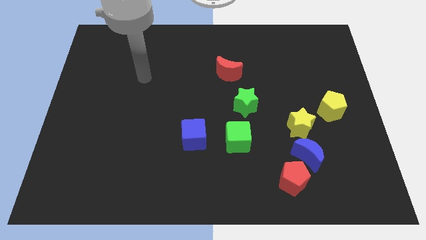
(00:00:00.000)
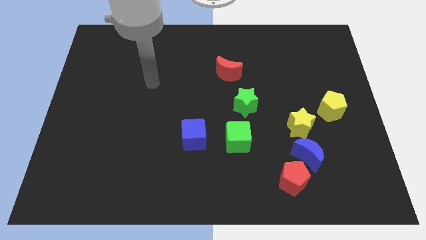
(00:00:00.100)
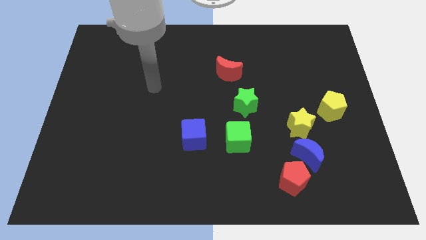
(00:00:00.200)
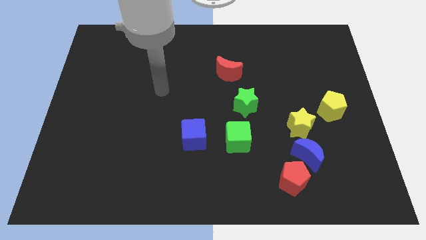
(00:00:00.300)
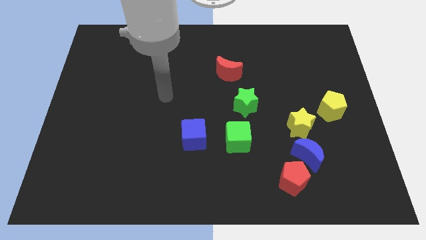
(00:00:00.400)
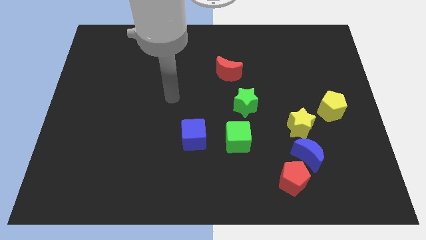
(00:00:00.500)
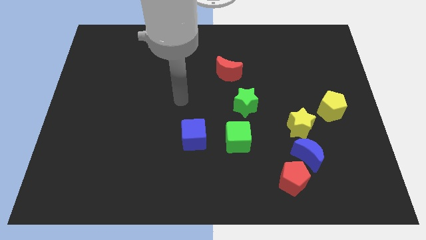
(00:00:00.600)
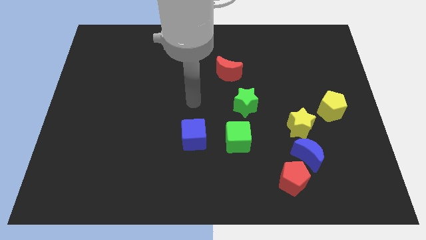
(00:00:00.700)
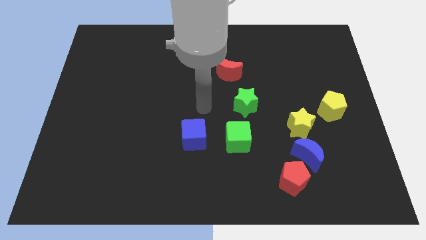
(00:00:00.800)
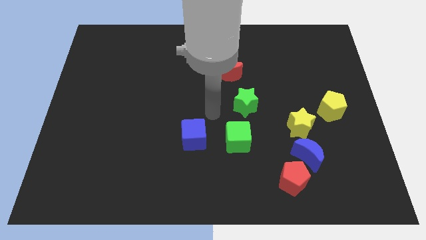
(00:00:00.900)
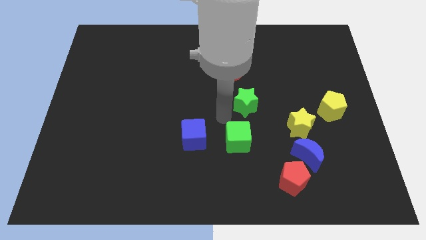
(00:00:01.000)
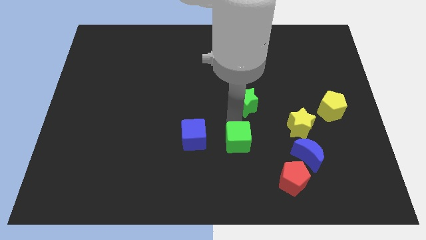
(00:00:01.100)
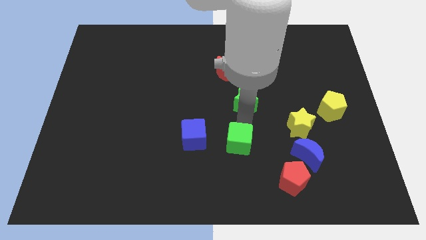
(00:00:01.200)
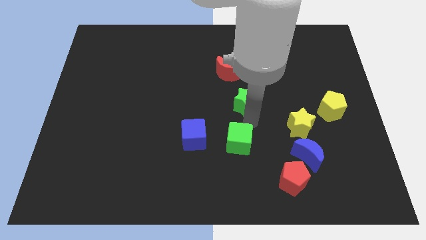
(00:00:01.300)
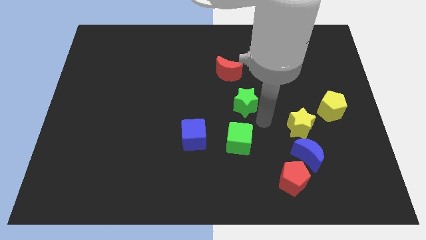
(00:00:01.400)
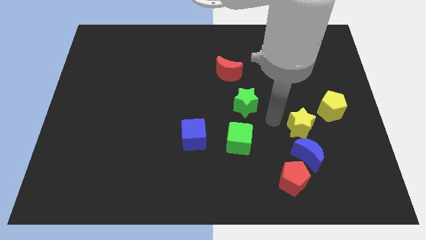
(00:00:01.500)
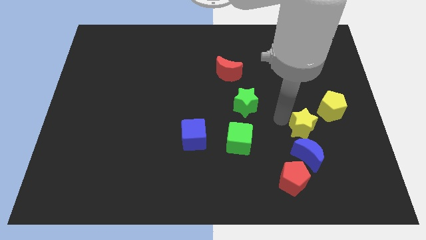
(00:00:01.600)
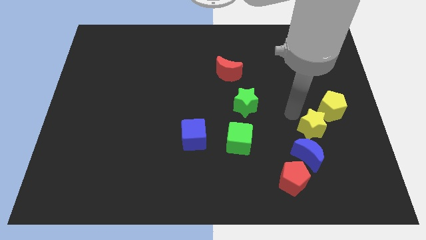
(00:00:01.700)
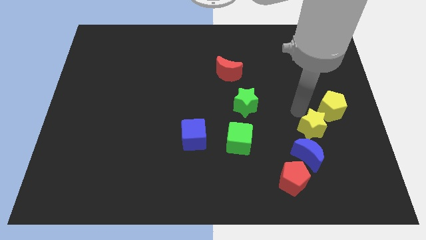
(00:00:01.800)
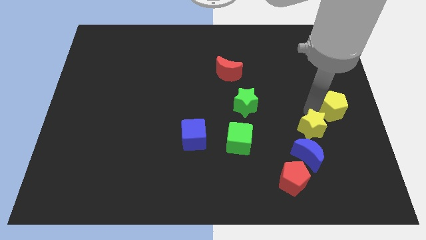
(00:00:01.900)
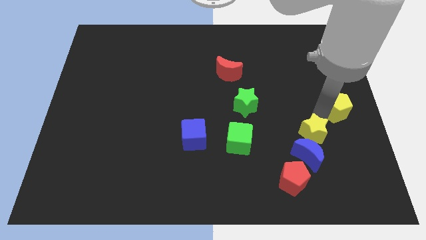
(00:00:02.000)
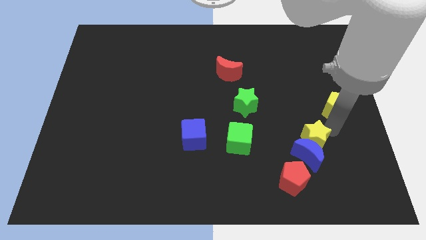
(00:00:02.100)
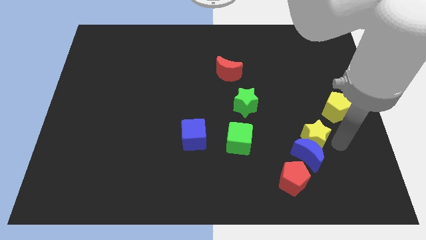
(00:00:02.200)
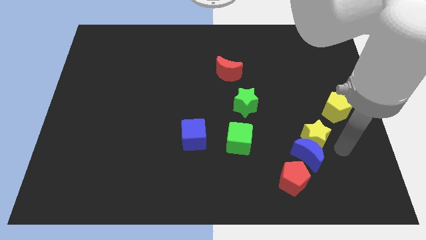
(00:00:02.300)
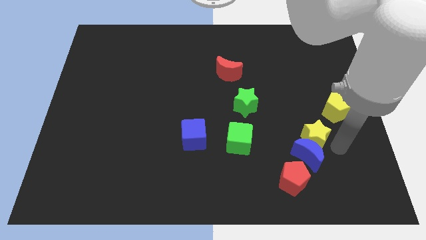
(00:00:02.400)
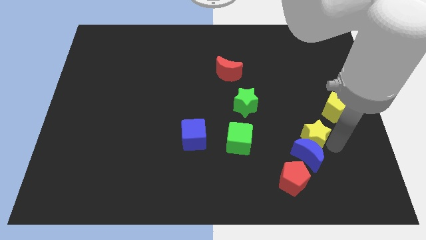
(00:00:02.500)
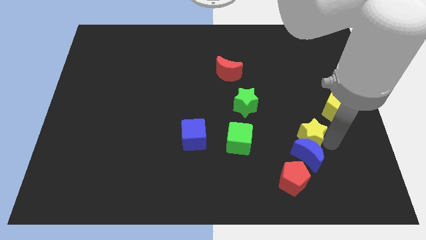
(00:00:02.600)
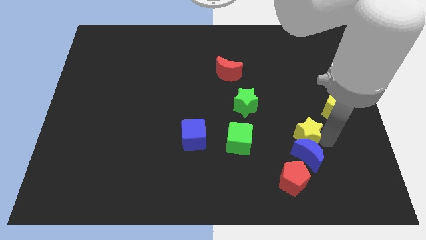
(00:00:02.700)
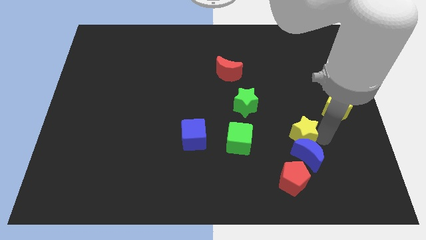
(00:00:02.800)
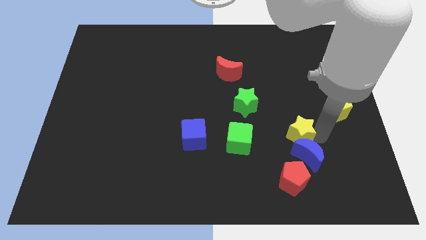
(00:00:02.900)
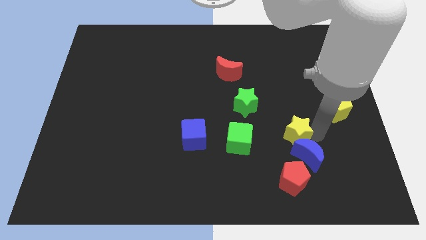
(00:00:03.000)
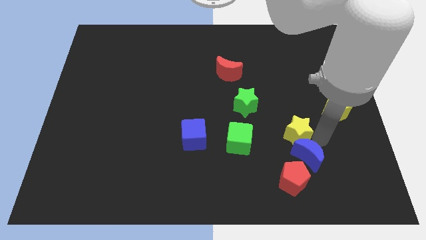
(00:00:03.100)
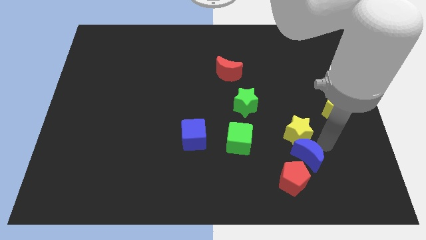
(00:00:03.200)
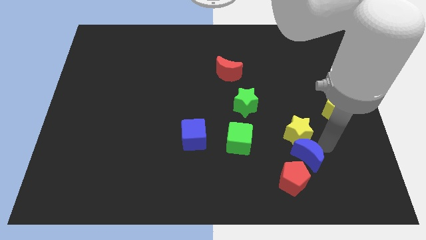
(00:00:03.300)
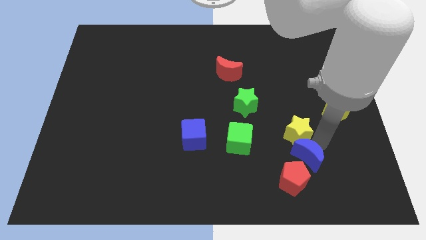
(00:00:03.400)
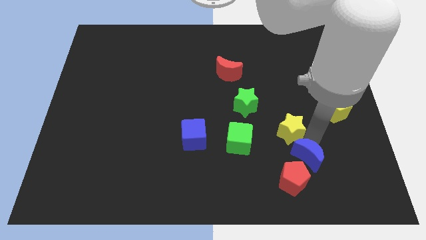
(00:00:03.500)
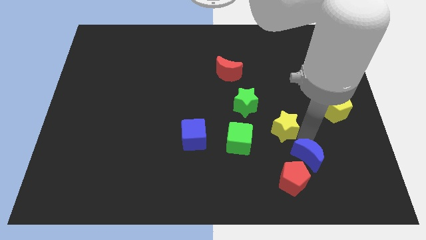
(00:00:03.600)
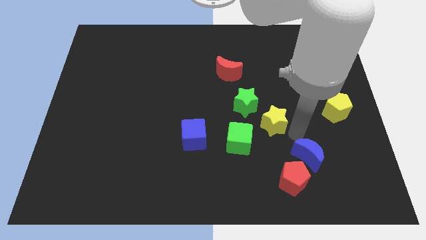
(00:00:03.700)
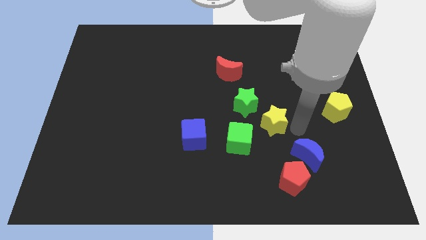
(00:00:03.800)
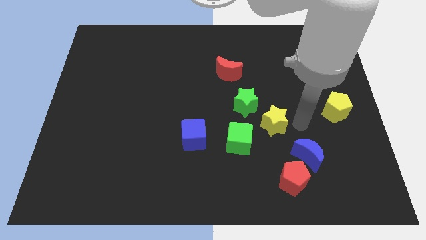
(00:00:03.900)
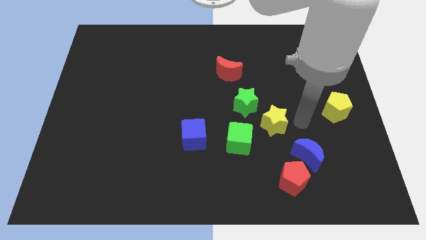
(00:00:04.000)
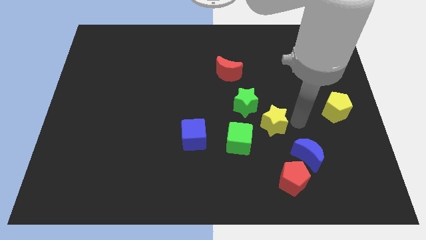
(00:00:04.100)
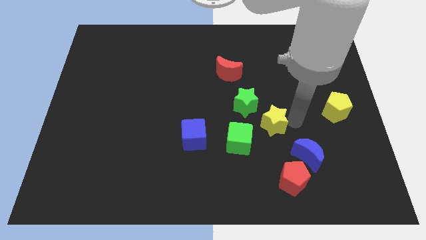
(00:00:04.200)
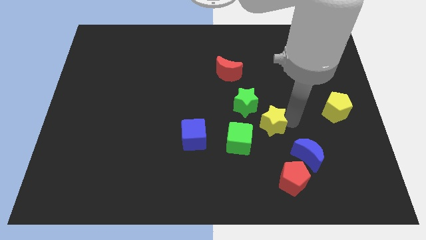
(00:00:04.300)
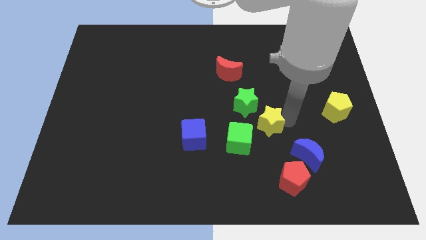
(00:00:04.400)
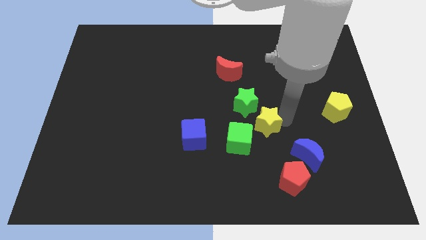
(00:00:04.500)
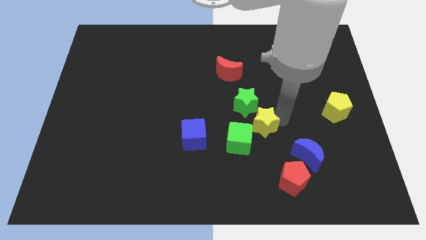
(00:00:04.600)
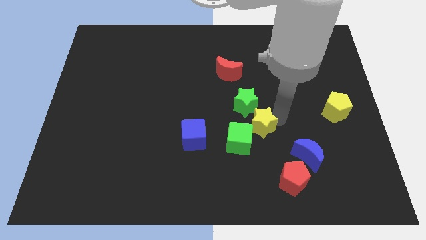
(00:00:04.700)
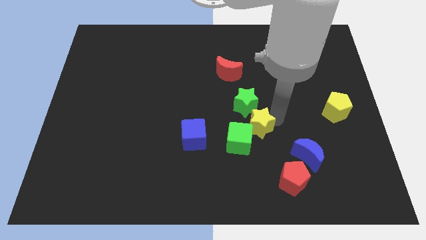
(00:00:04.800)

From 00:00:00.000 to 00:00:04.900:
put the yellow star to the green cube

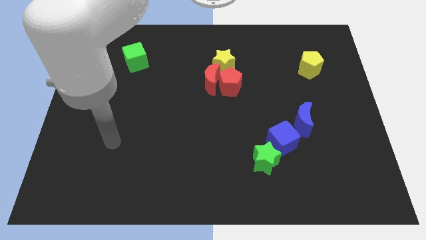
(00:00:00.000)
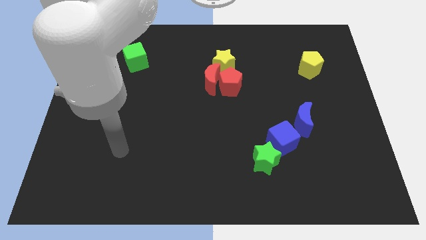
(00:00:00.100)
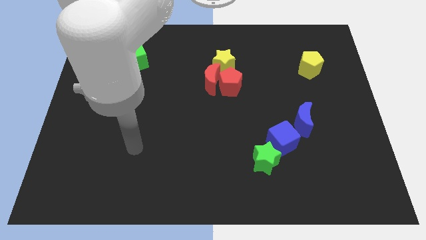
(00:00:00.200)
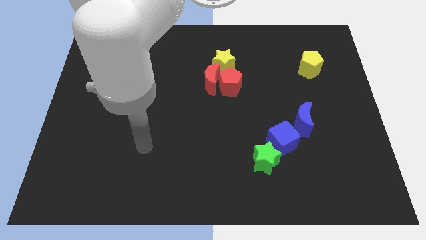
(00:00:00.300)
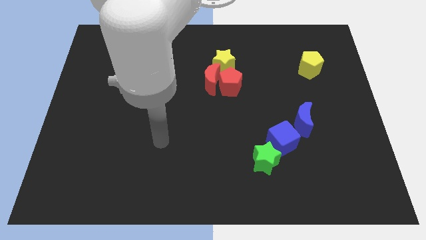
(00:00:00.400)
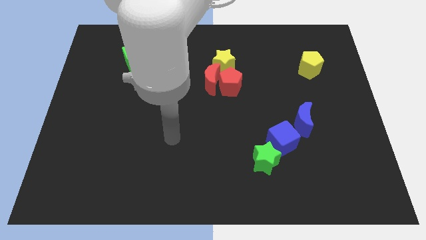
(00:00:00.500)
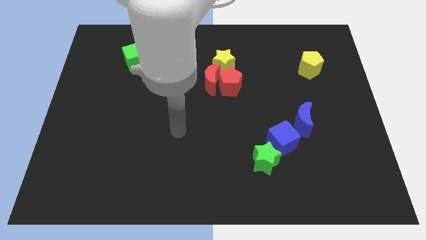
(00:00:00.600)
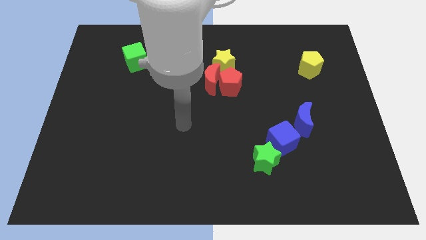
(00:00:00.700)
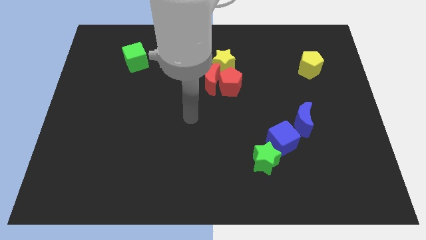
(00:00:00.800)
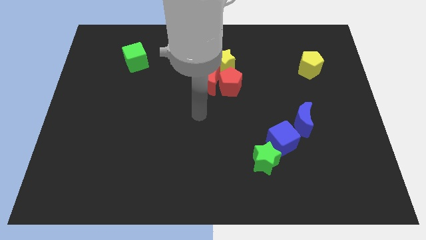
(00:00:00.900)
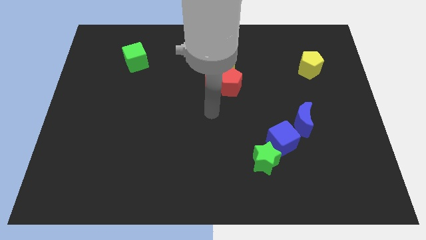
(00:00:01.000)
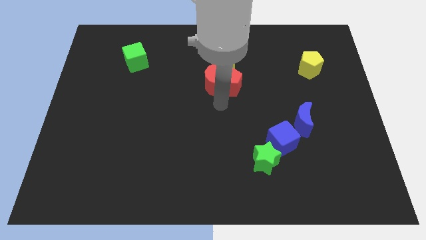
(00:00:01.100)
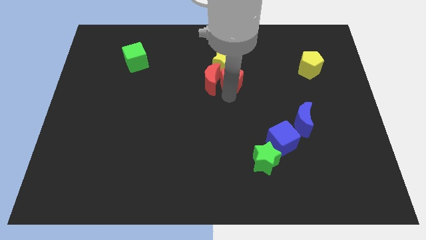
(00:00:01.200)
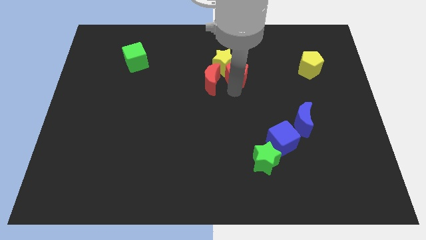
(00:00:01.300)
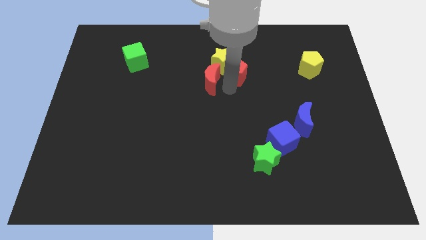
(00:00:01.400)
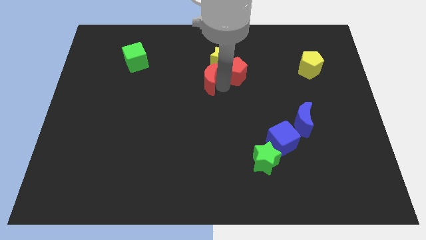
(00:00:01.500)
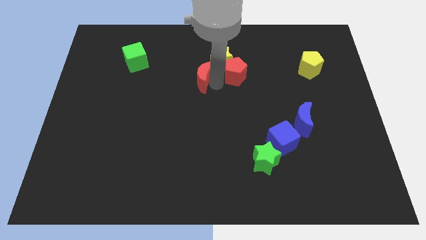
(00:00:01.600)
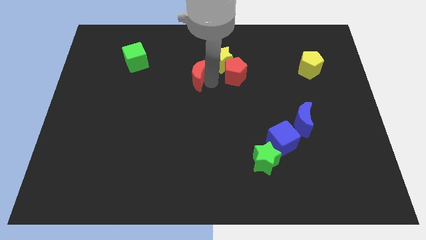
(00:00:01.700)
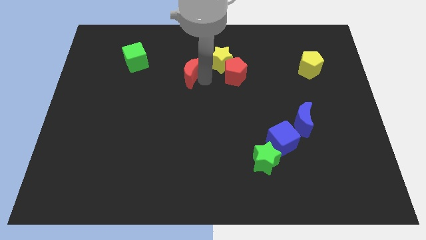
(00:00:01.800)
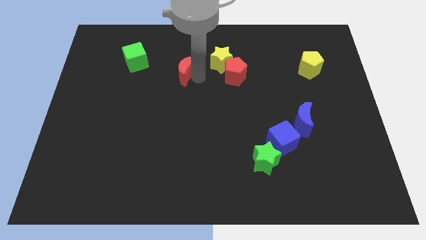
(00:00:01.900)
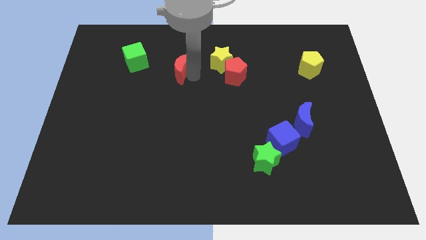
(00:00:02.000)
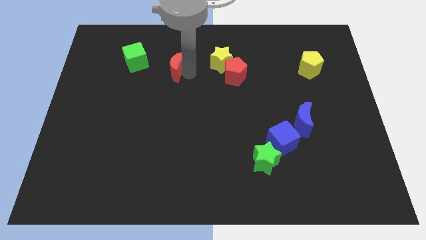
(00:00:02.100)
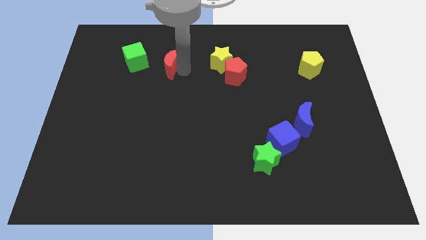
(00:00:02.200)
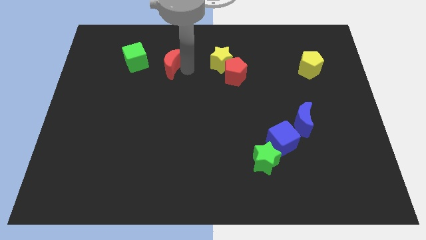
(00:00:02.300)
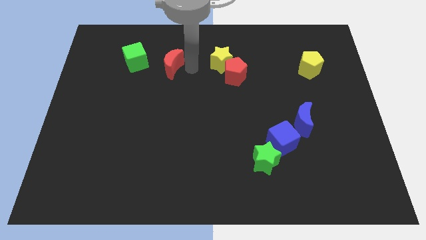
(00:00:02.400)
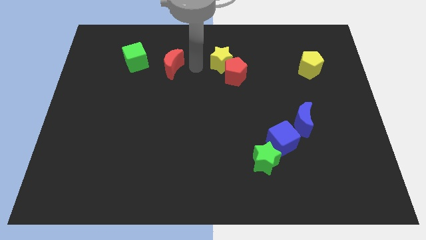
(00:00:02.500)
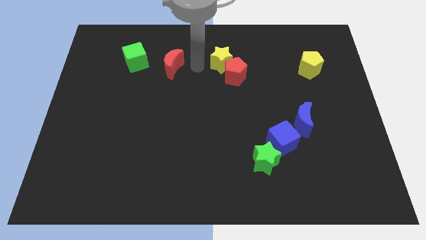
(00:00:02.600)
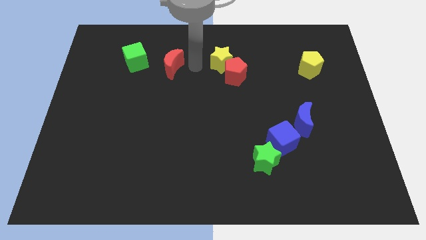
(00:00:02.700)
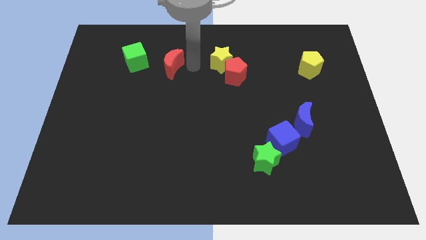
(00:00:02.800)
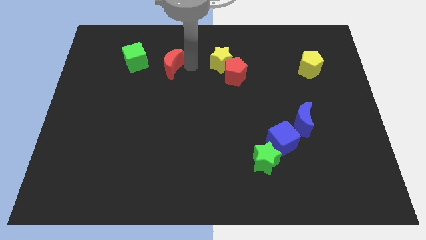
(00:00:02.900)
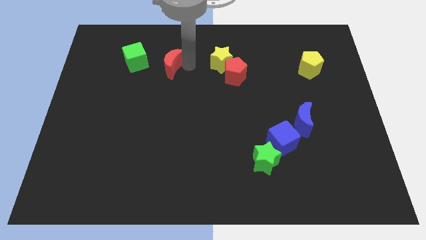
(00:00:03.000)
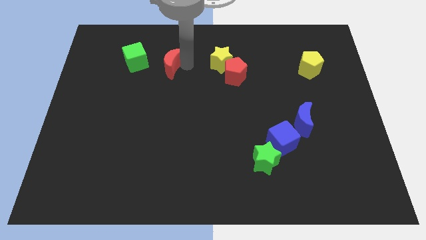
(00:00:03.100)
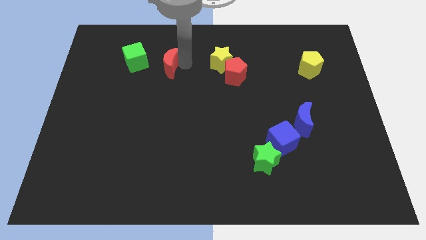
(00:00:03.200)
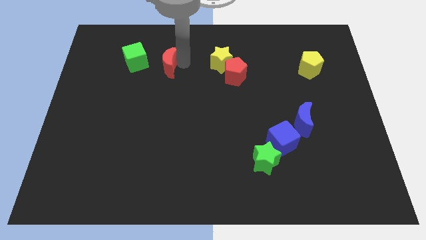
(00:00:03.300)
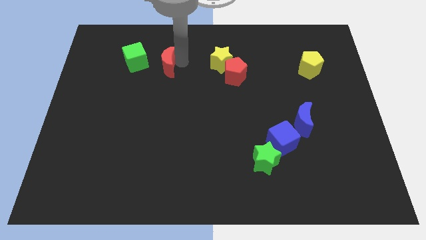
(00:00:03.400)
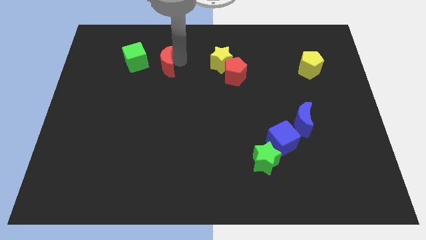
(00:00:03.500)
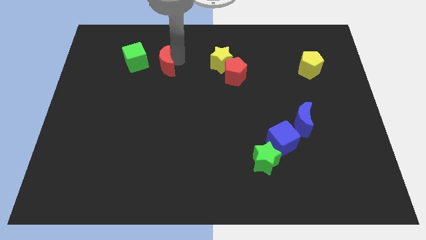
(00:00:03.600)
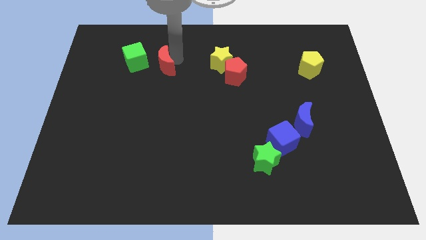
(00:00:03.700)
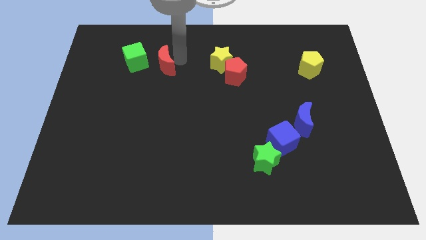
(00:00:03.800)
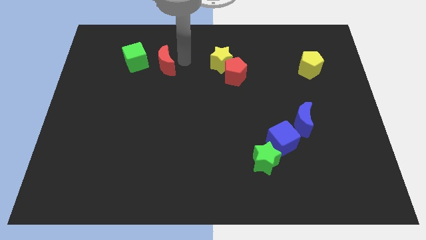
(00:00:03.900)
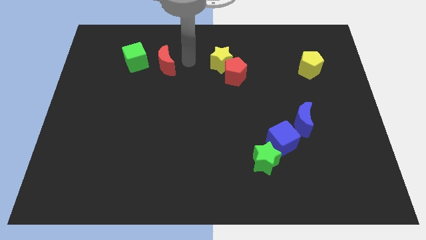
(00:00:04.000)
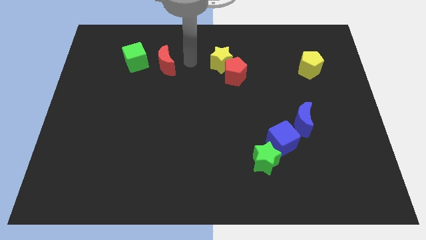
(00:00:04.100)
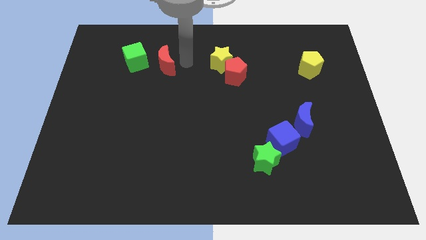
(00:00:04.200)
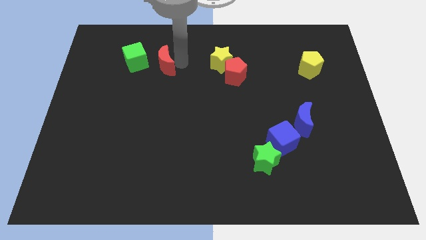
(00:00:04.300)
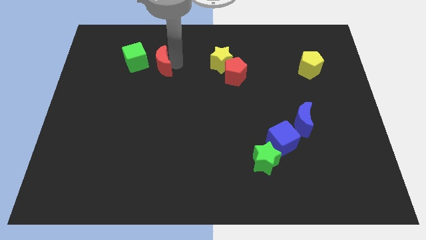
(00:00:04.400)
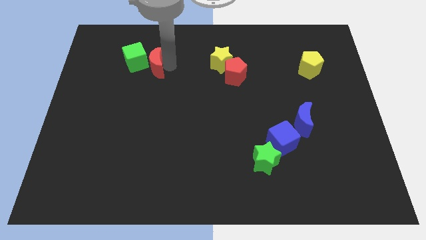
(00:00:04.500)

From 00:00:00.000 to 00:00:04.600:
put the red moon close to the green cube
